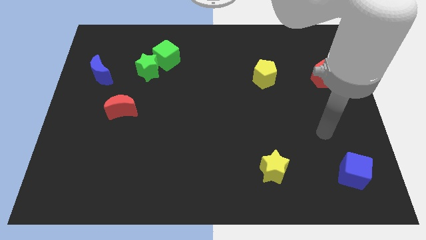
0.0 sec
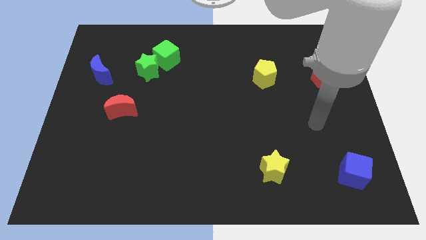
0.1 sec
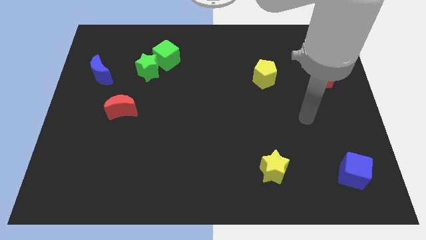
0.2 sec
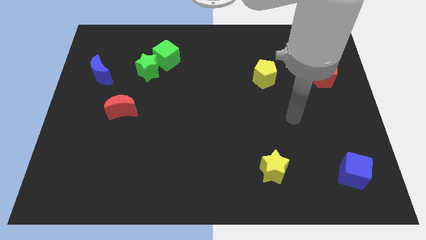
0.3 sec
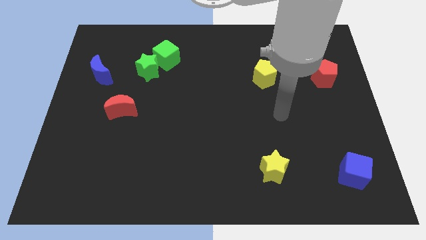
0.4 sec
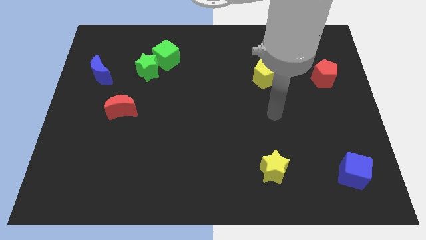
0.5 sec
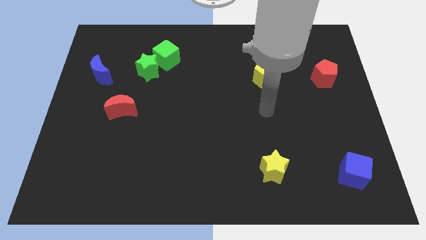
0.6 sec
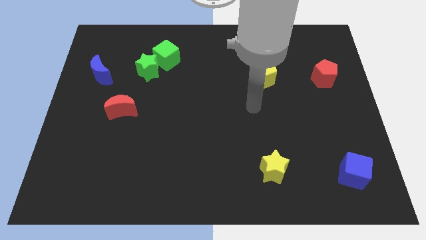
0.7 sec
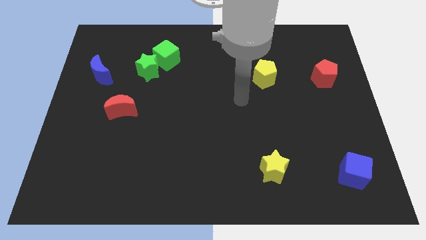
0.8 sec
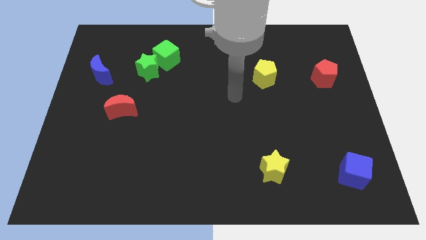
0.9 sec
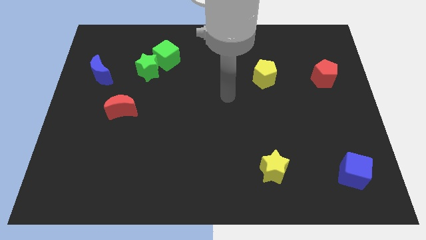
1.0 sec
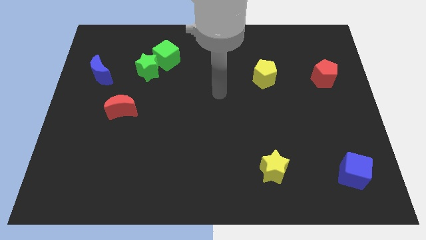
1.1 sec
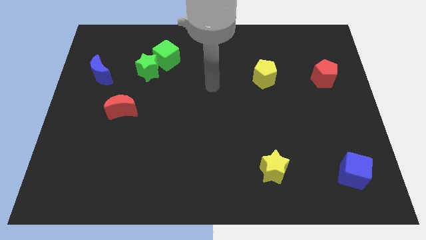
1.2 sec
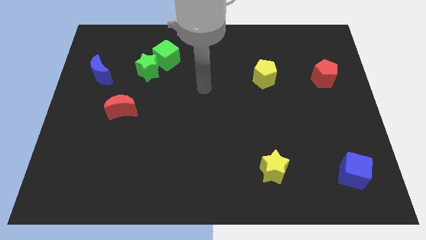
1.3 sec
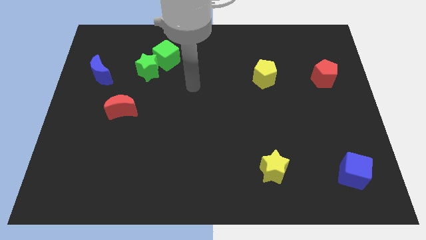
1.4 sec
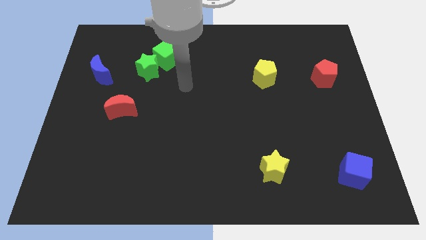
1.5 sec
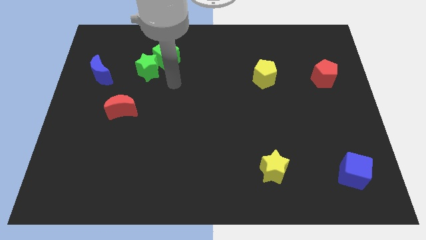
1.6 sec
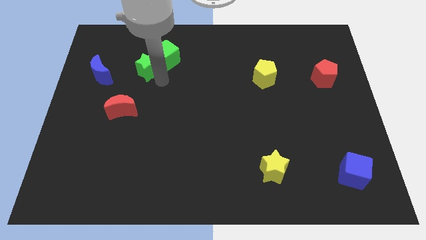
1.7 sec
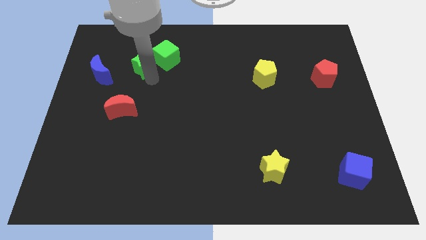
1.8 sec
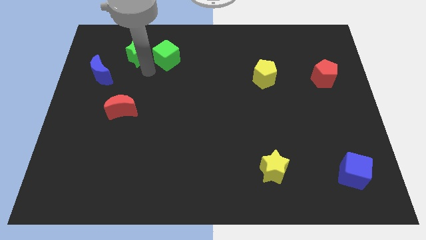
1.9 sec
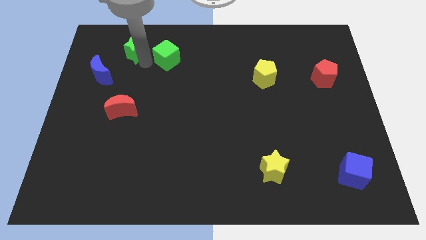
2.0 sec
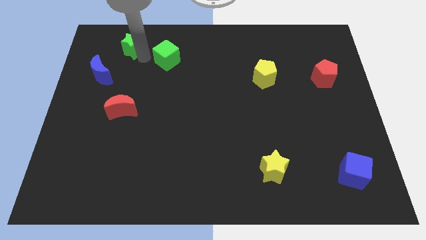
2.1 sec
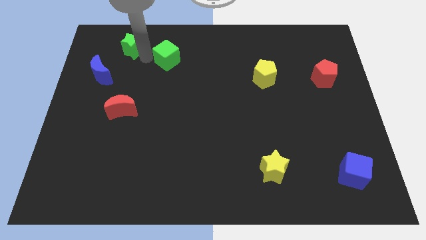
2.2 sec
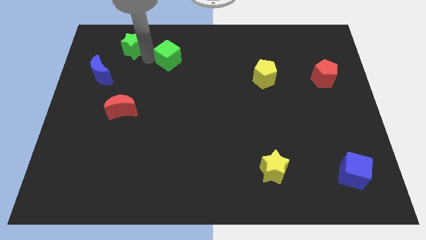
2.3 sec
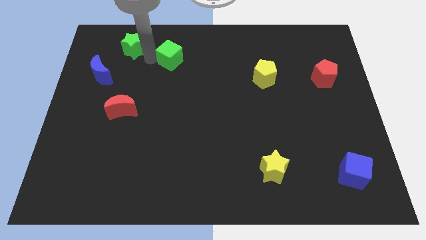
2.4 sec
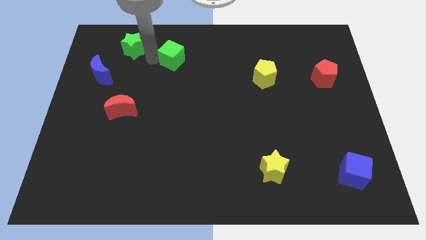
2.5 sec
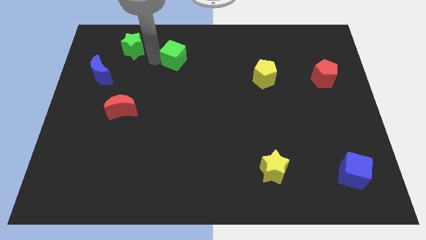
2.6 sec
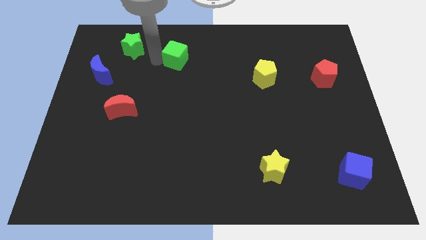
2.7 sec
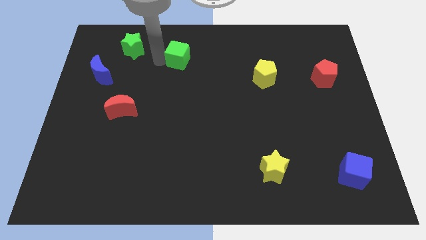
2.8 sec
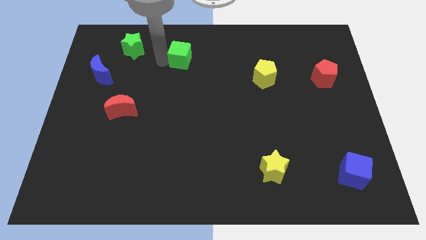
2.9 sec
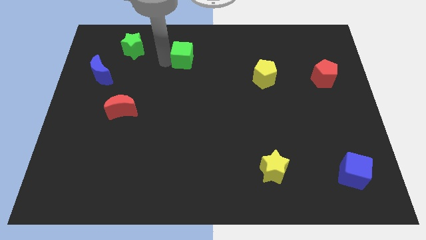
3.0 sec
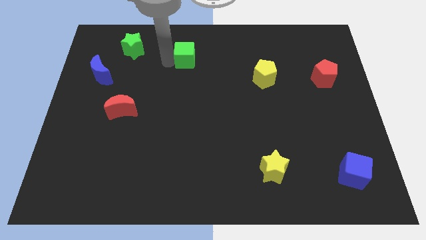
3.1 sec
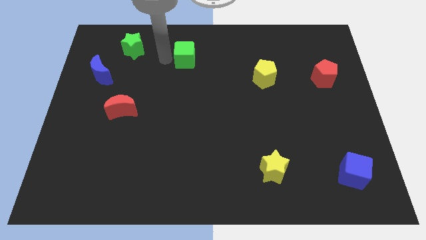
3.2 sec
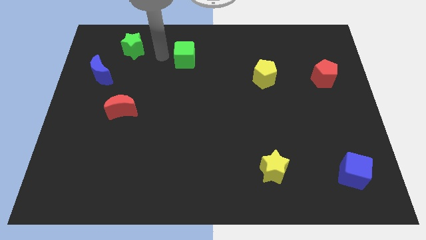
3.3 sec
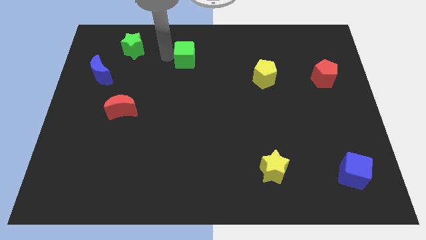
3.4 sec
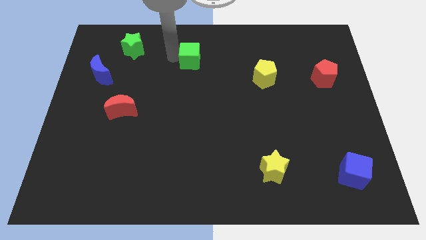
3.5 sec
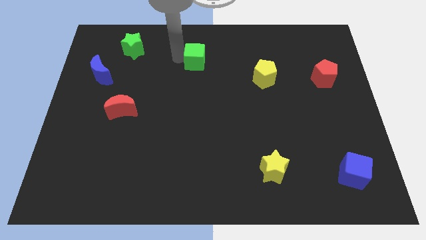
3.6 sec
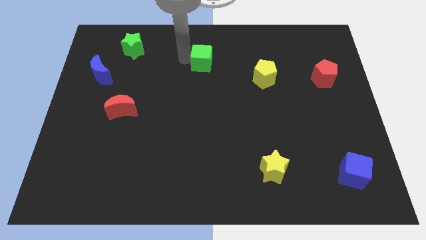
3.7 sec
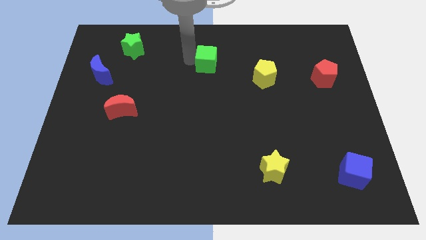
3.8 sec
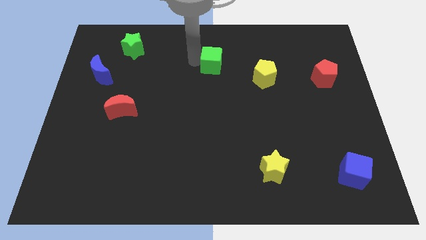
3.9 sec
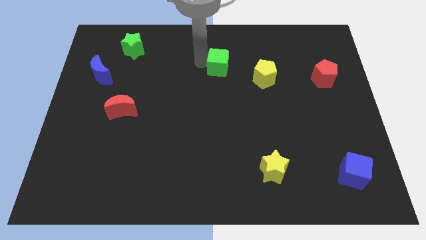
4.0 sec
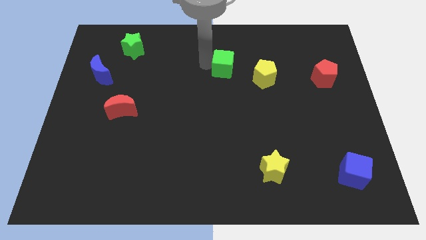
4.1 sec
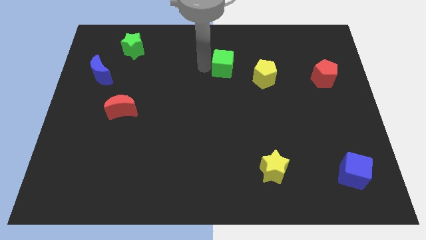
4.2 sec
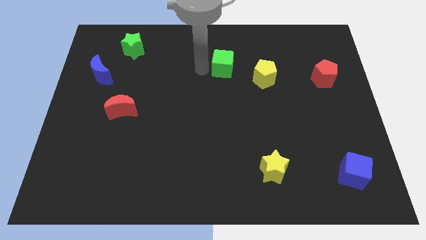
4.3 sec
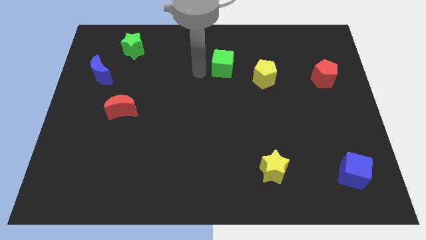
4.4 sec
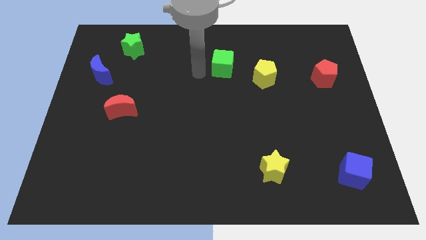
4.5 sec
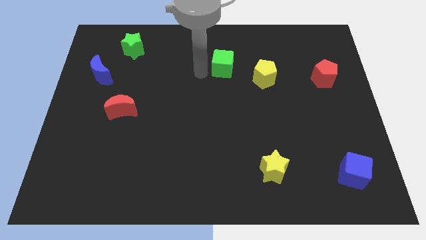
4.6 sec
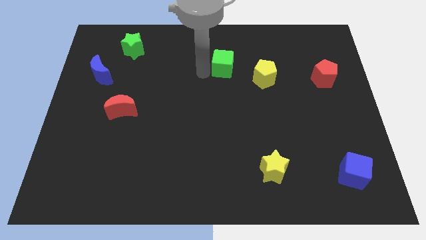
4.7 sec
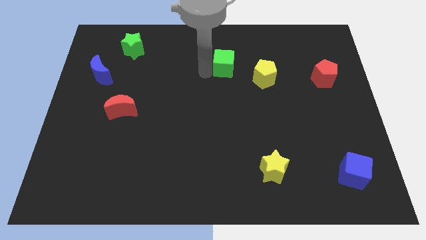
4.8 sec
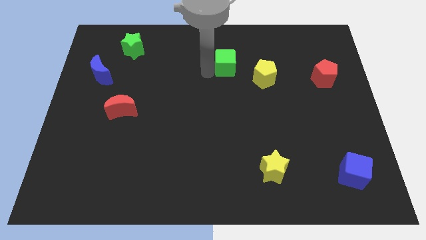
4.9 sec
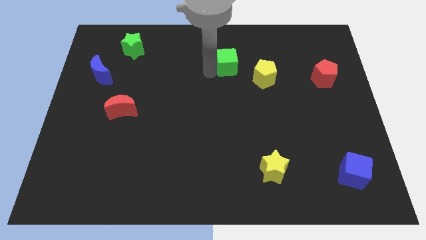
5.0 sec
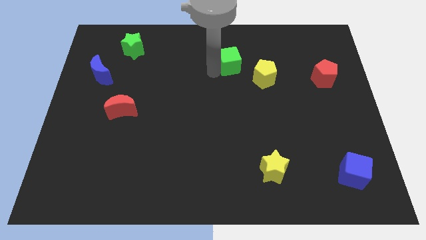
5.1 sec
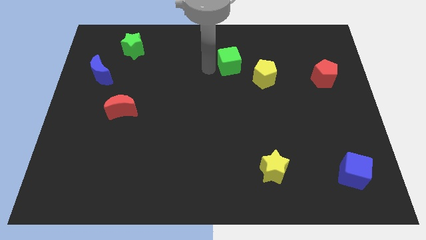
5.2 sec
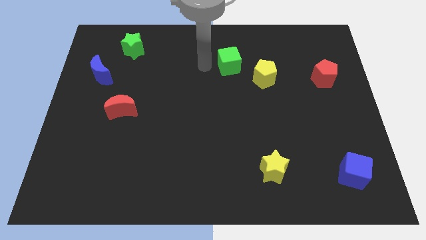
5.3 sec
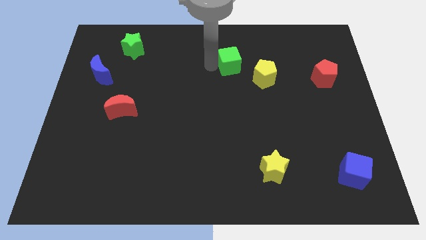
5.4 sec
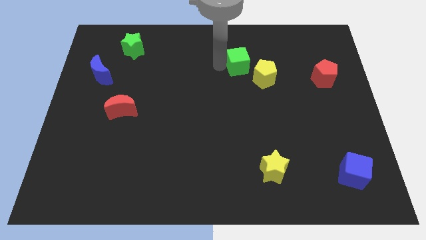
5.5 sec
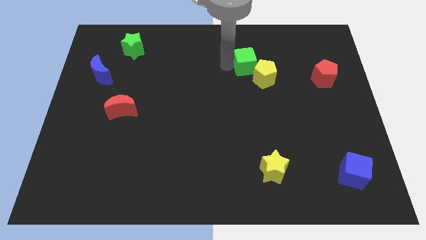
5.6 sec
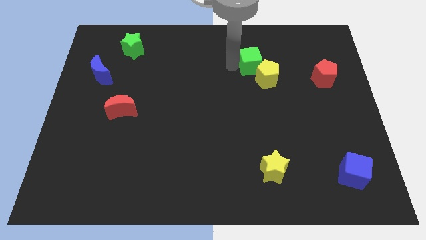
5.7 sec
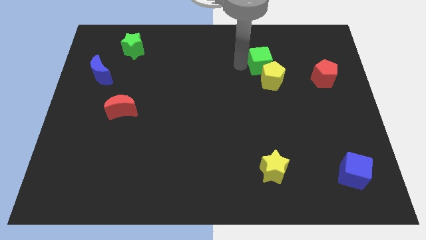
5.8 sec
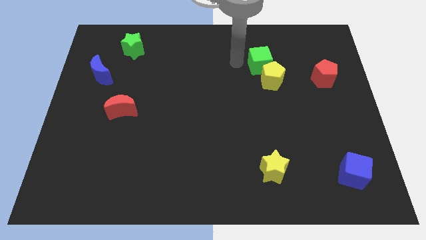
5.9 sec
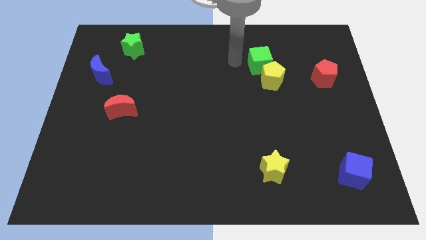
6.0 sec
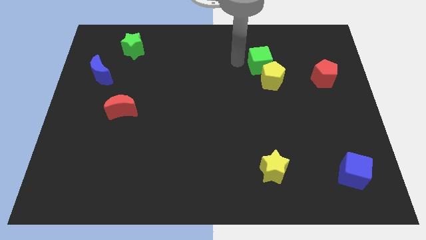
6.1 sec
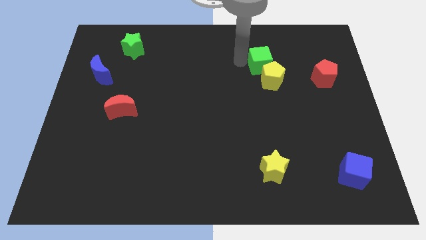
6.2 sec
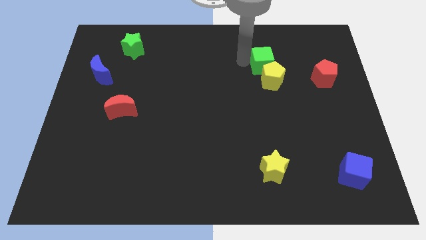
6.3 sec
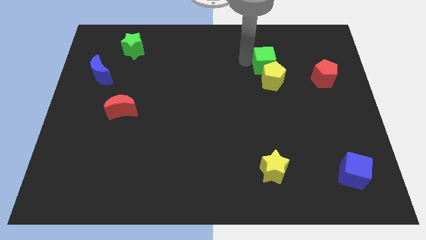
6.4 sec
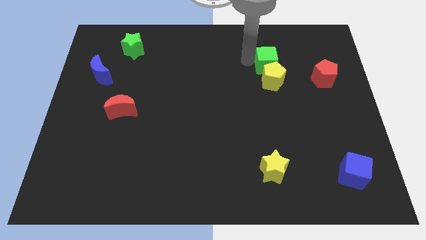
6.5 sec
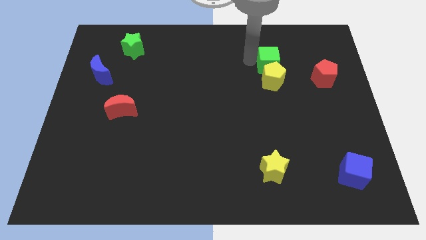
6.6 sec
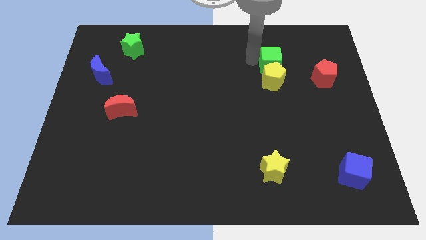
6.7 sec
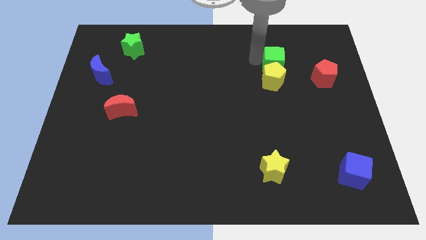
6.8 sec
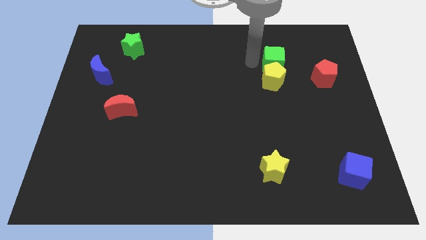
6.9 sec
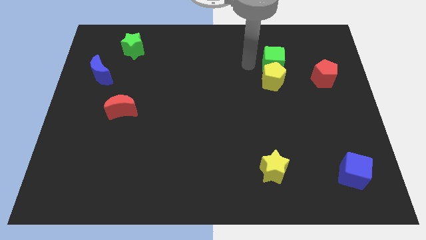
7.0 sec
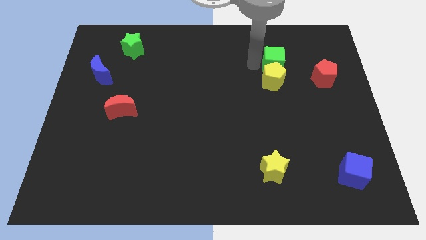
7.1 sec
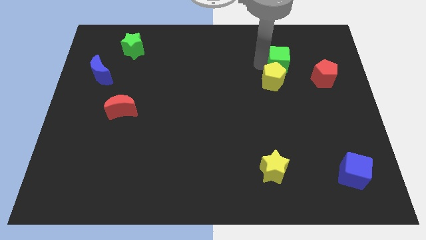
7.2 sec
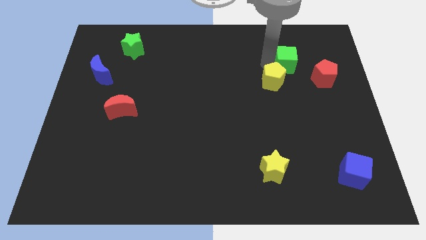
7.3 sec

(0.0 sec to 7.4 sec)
slide the green cube to the top left side of the red pentagon
